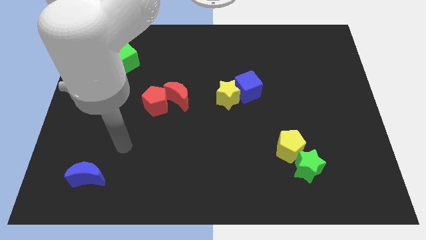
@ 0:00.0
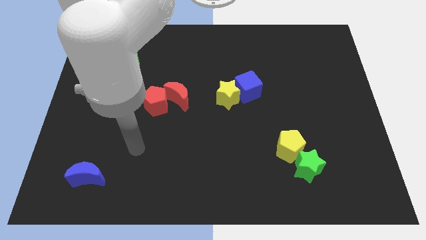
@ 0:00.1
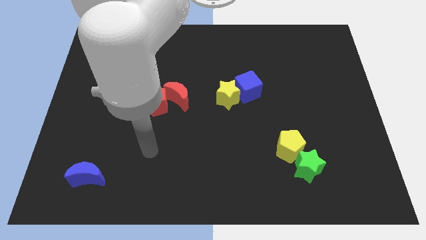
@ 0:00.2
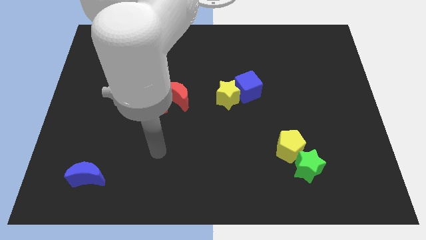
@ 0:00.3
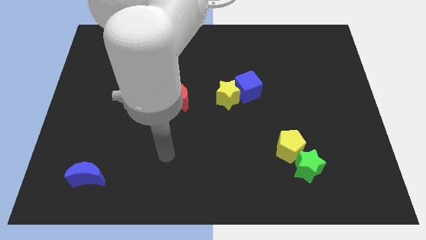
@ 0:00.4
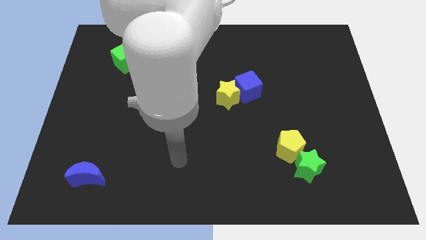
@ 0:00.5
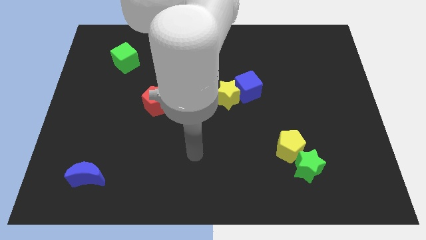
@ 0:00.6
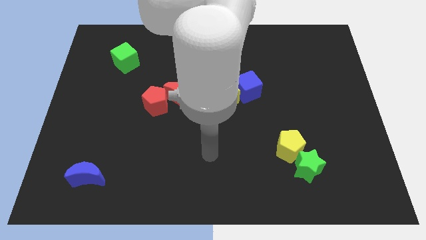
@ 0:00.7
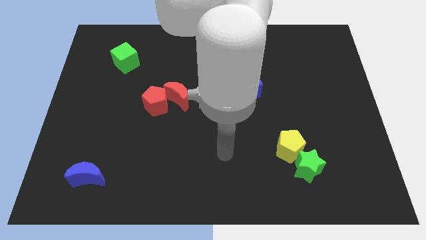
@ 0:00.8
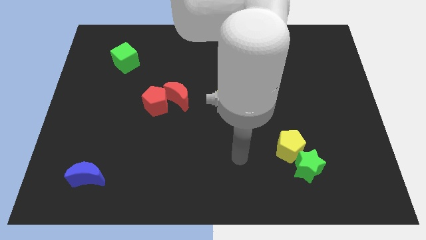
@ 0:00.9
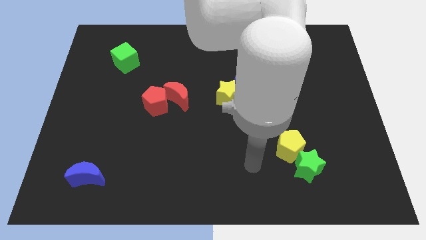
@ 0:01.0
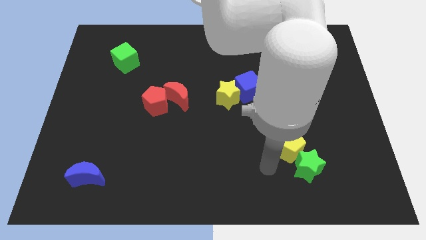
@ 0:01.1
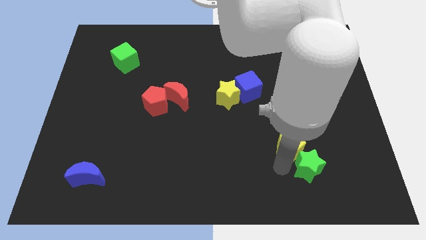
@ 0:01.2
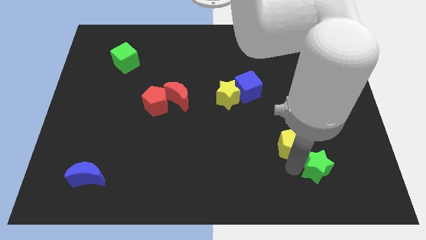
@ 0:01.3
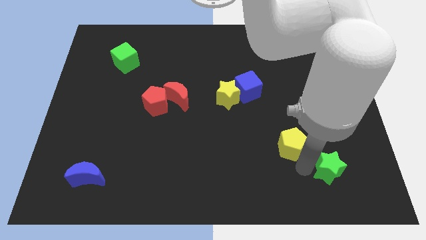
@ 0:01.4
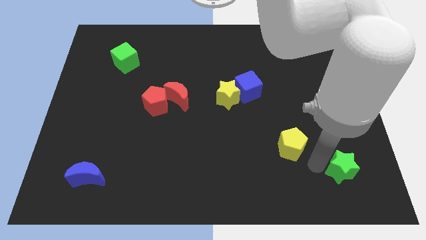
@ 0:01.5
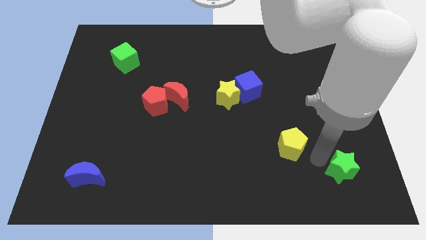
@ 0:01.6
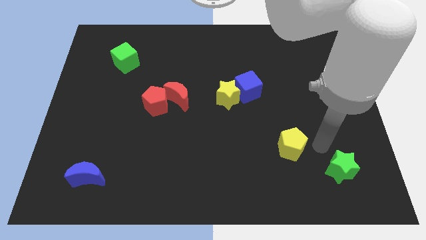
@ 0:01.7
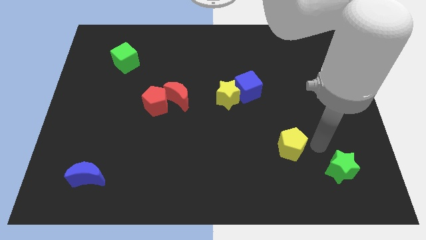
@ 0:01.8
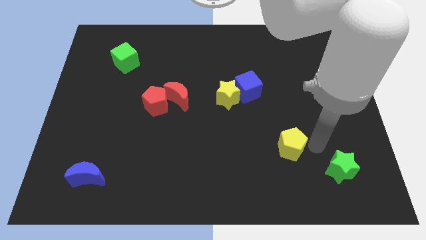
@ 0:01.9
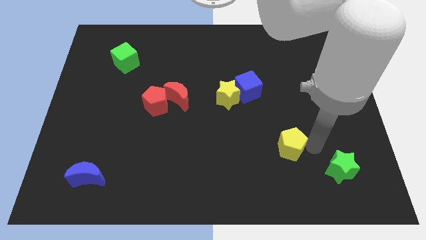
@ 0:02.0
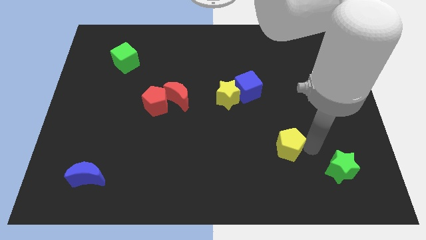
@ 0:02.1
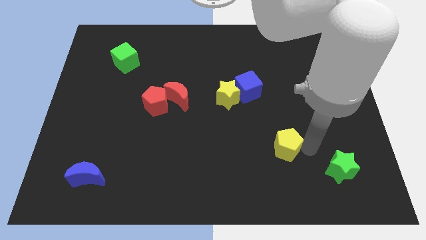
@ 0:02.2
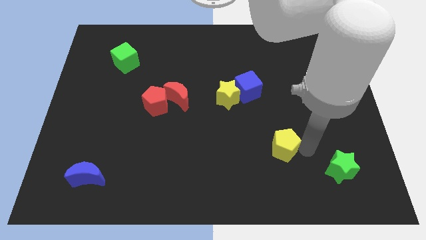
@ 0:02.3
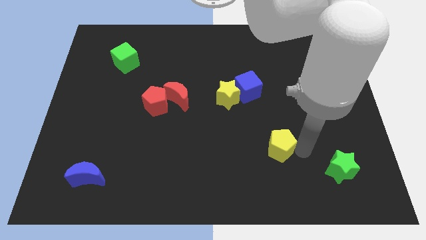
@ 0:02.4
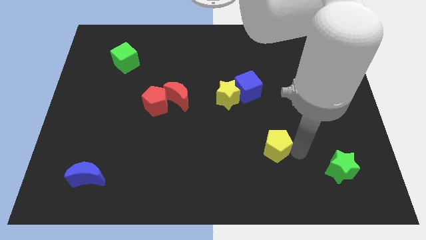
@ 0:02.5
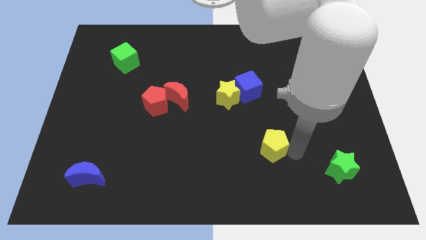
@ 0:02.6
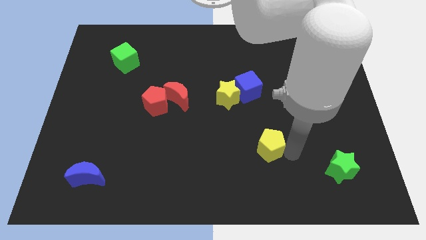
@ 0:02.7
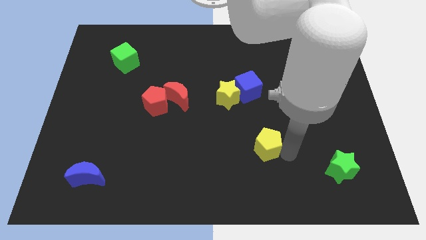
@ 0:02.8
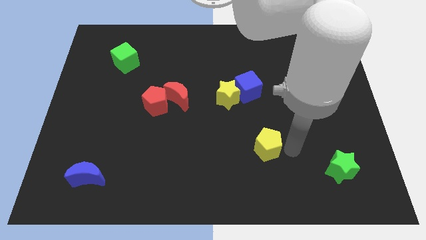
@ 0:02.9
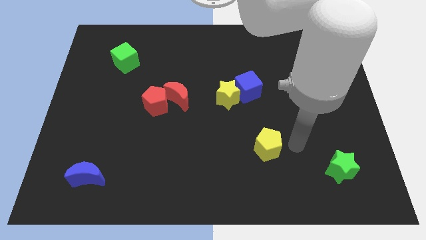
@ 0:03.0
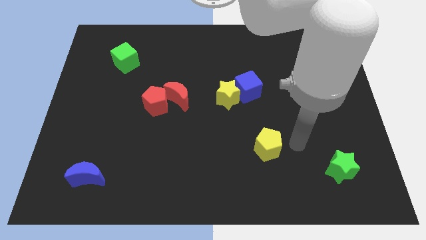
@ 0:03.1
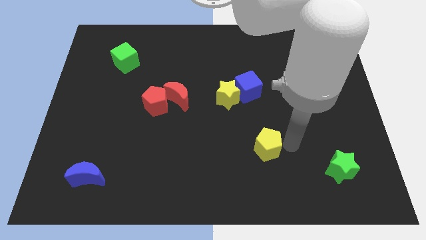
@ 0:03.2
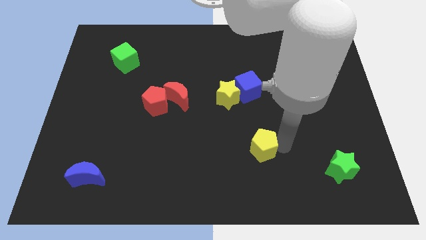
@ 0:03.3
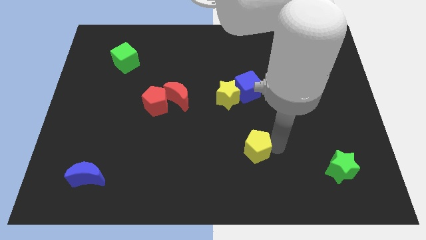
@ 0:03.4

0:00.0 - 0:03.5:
slightly push the yellow pentagon left

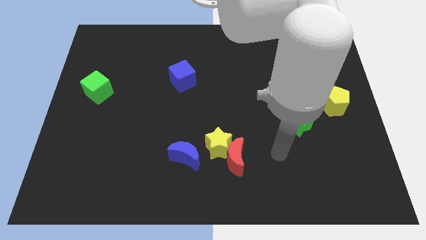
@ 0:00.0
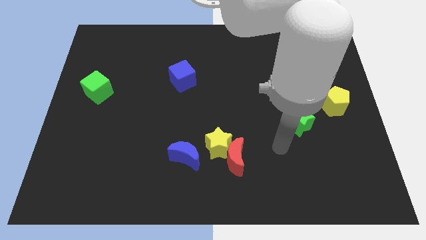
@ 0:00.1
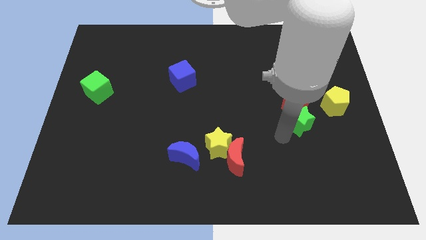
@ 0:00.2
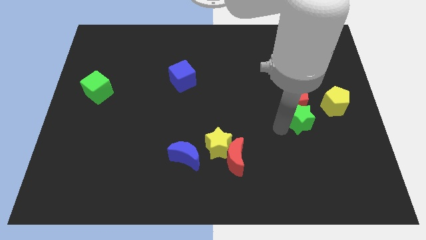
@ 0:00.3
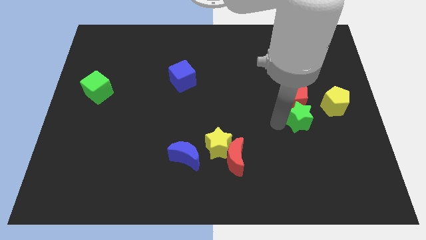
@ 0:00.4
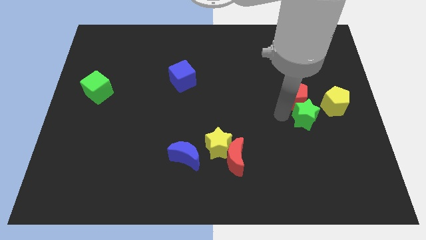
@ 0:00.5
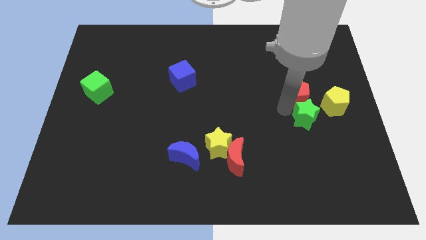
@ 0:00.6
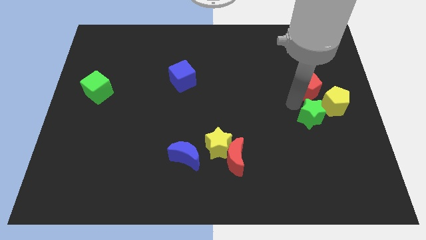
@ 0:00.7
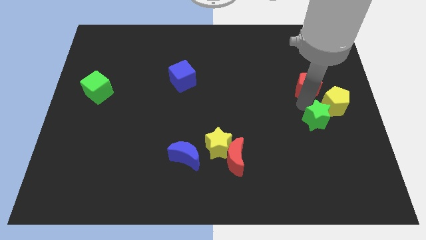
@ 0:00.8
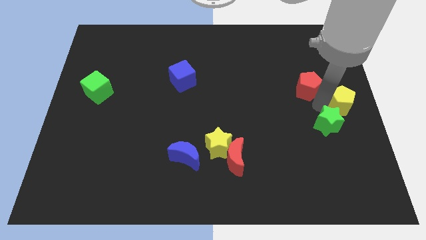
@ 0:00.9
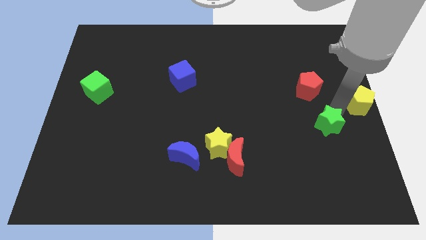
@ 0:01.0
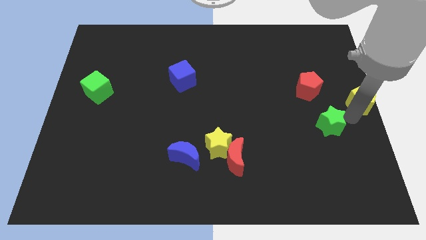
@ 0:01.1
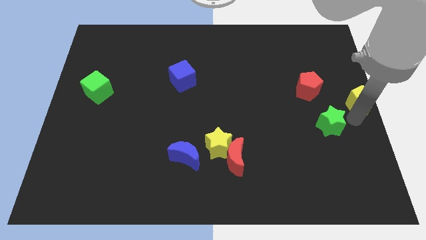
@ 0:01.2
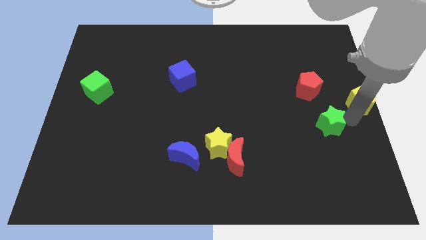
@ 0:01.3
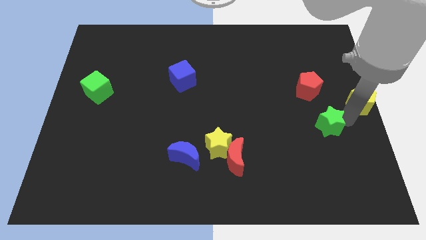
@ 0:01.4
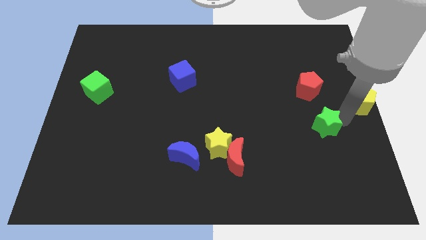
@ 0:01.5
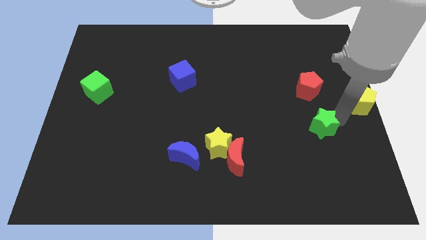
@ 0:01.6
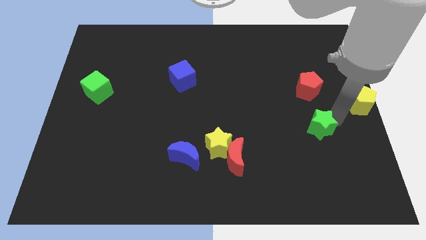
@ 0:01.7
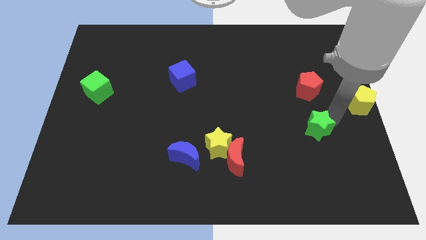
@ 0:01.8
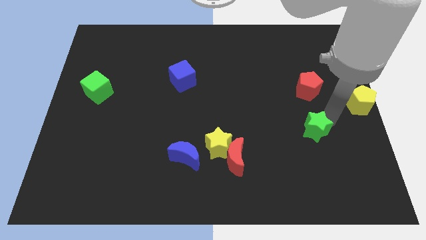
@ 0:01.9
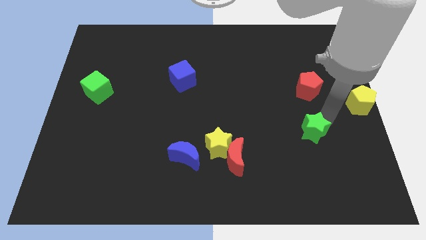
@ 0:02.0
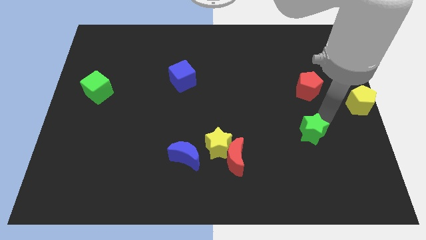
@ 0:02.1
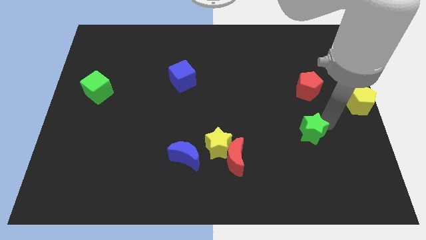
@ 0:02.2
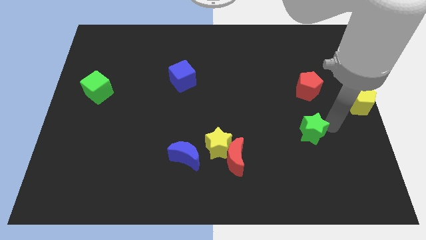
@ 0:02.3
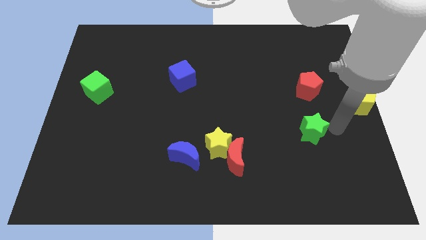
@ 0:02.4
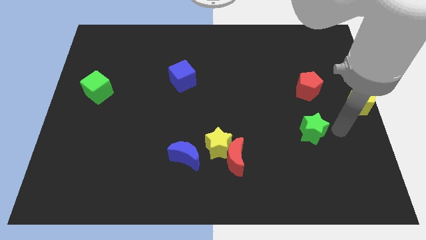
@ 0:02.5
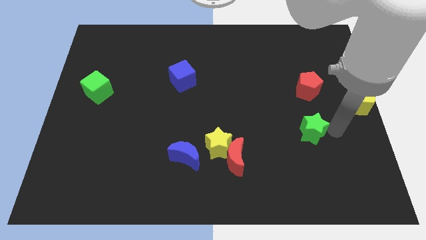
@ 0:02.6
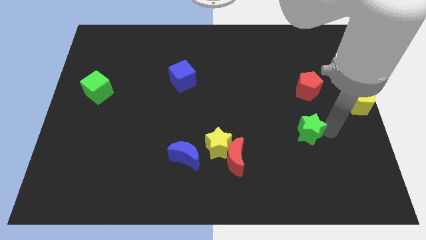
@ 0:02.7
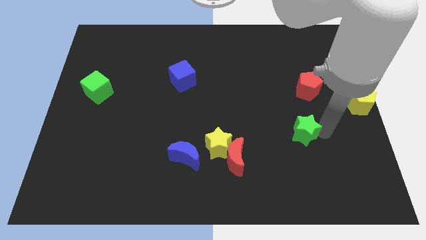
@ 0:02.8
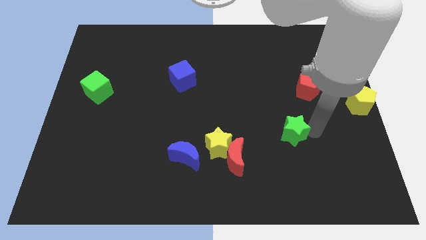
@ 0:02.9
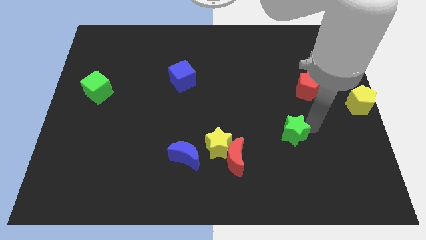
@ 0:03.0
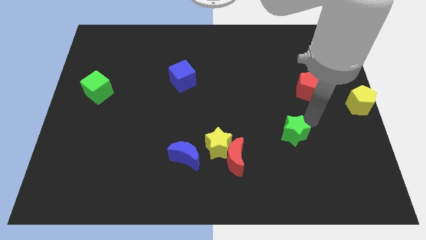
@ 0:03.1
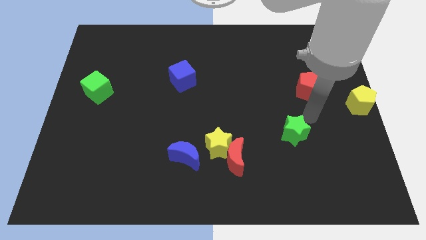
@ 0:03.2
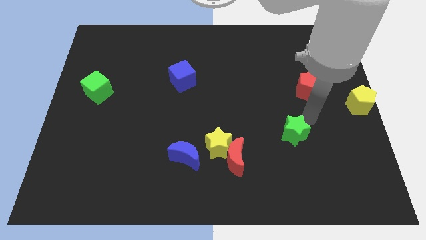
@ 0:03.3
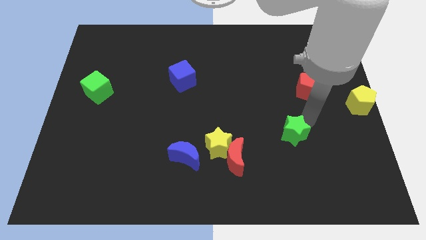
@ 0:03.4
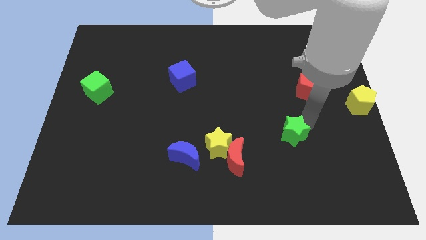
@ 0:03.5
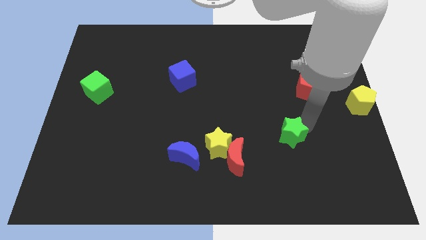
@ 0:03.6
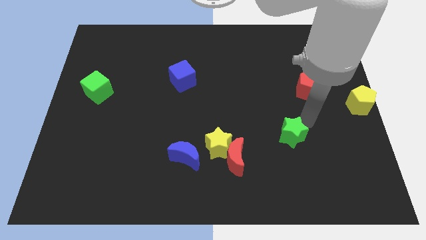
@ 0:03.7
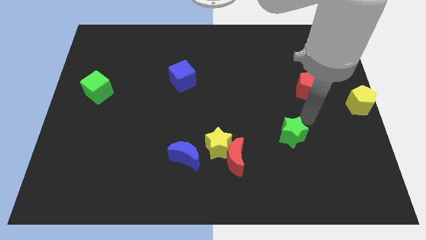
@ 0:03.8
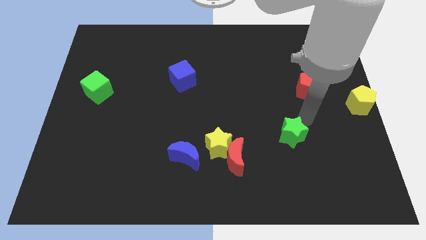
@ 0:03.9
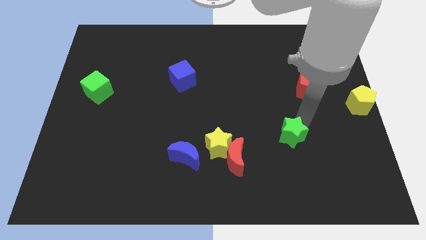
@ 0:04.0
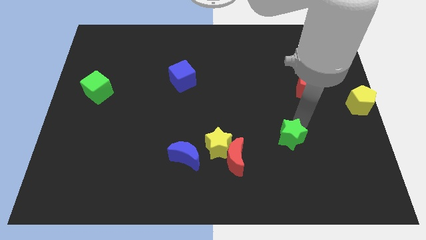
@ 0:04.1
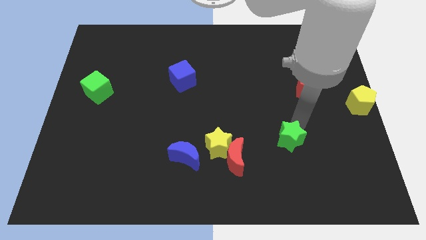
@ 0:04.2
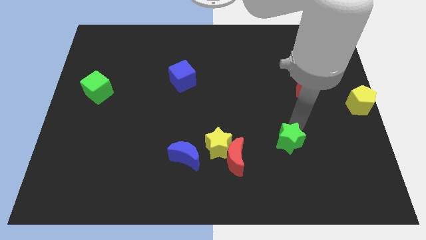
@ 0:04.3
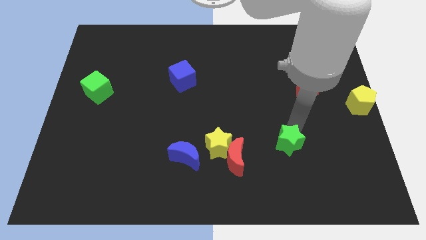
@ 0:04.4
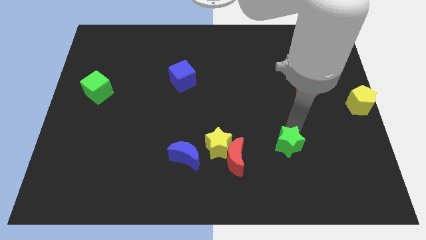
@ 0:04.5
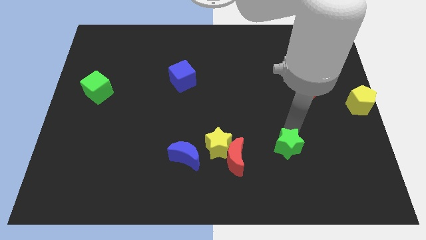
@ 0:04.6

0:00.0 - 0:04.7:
slightly push the green star down and to the left diagonally
